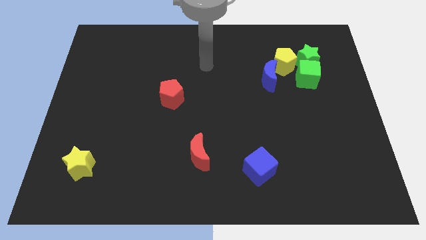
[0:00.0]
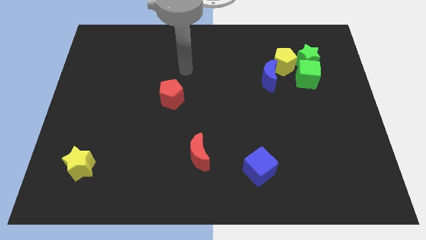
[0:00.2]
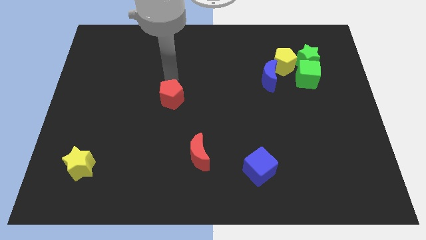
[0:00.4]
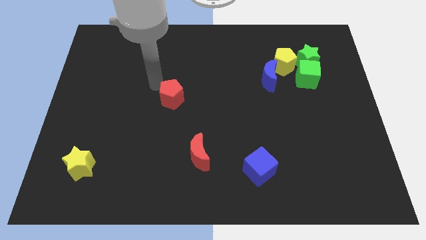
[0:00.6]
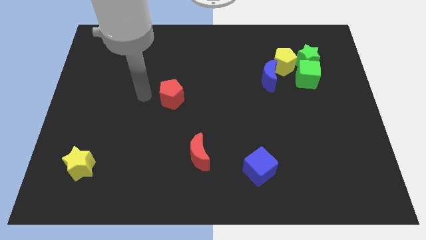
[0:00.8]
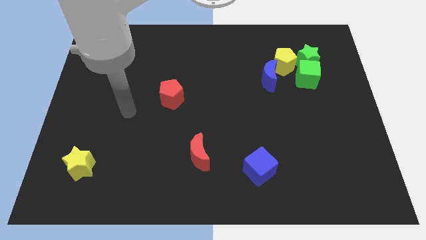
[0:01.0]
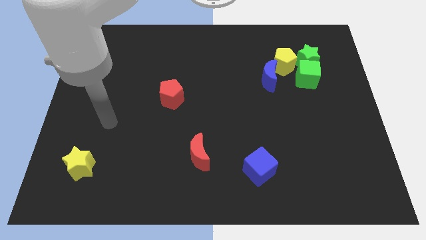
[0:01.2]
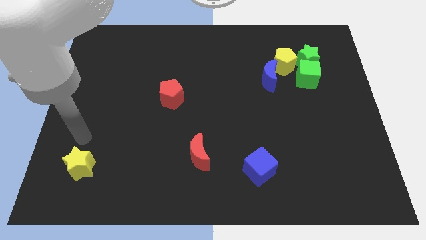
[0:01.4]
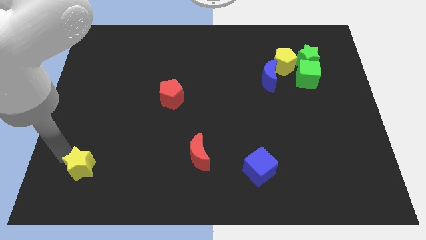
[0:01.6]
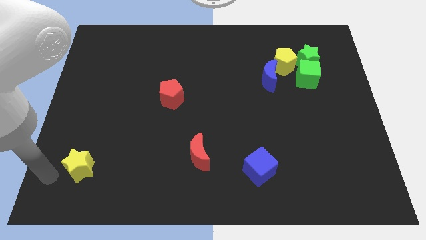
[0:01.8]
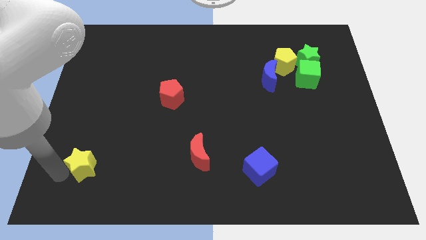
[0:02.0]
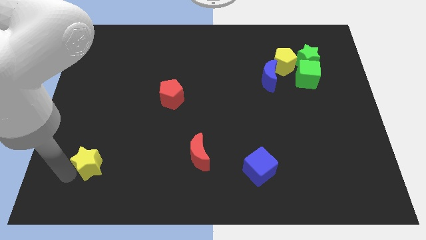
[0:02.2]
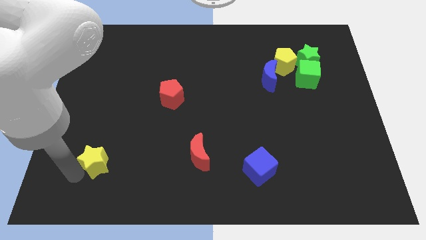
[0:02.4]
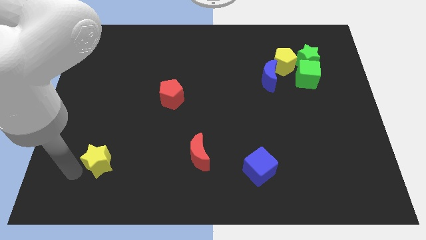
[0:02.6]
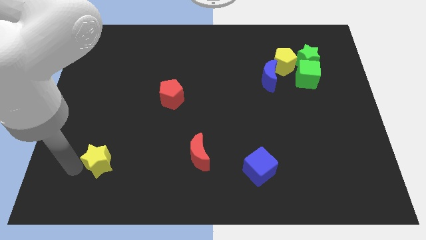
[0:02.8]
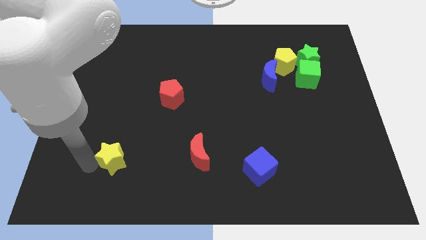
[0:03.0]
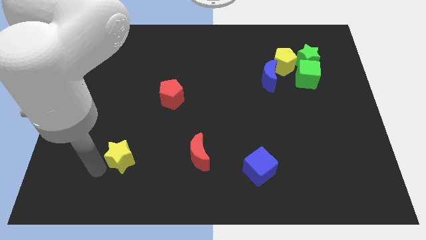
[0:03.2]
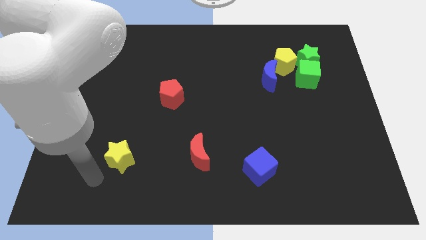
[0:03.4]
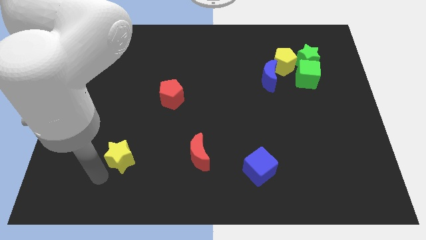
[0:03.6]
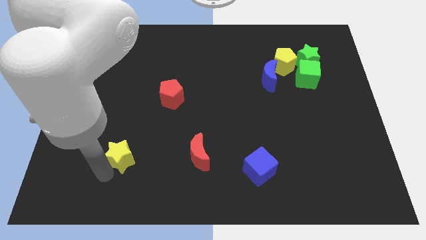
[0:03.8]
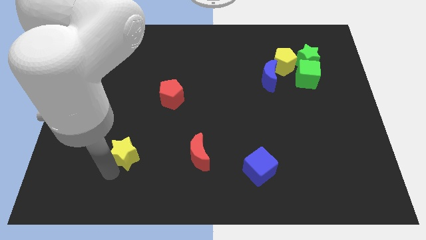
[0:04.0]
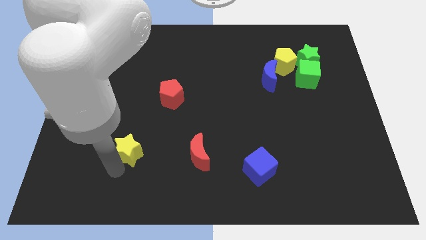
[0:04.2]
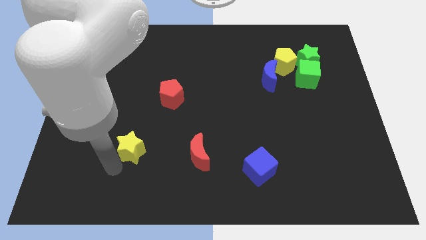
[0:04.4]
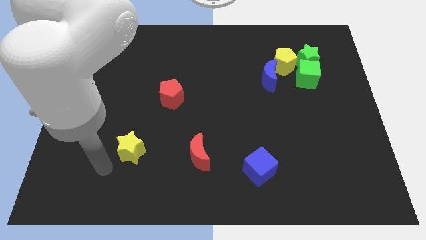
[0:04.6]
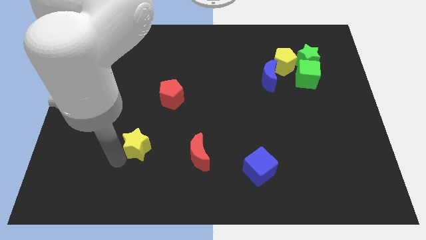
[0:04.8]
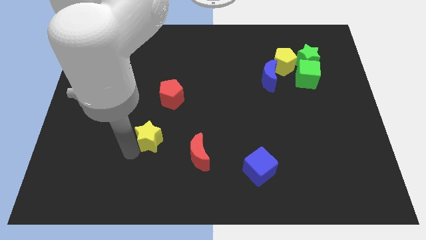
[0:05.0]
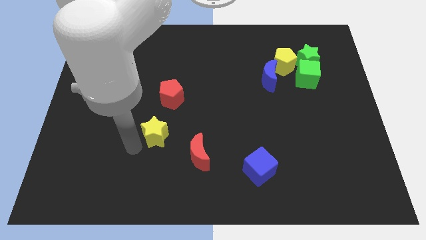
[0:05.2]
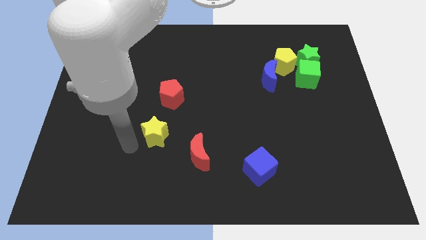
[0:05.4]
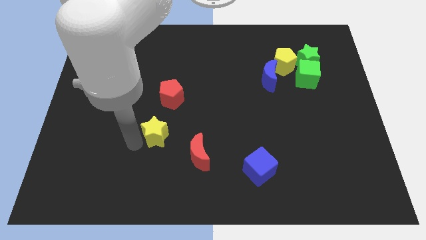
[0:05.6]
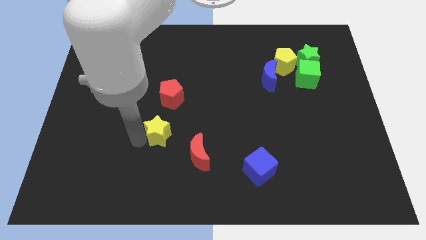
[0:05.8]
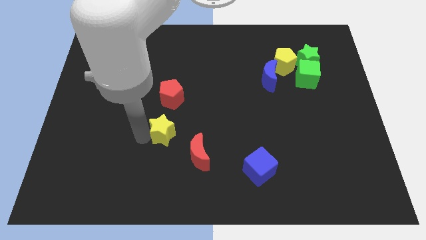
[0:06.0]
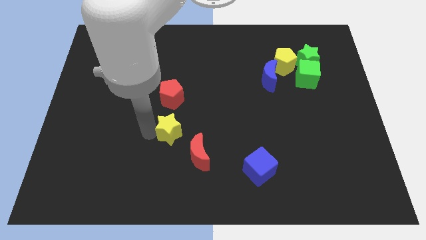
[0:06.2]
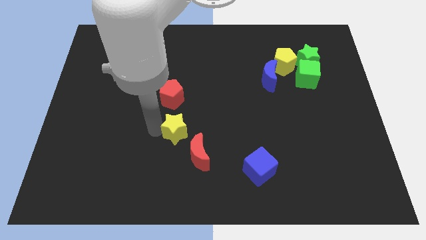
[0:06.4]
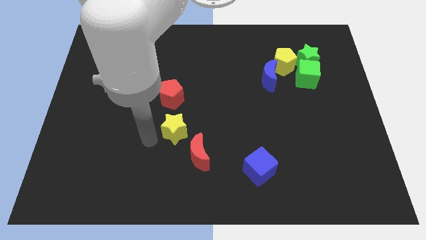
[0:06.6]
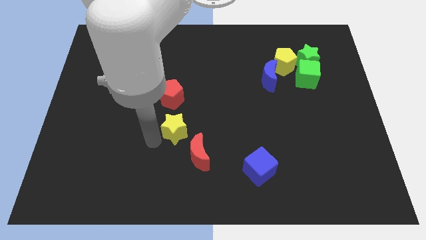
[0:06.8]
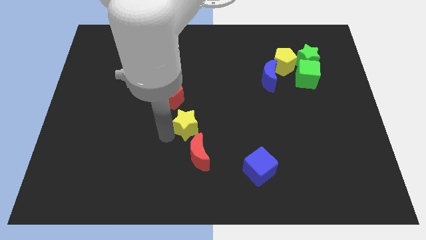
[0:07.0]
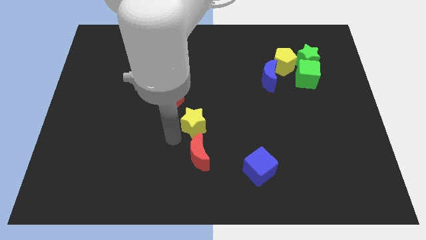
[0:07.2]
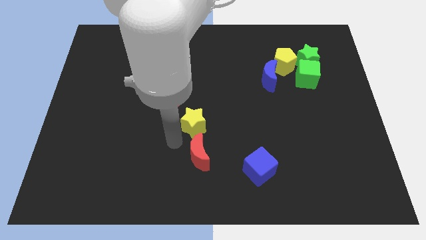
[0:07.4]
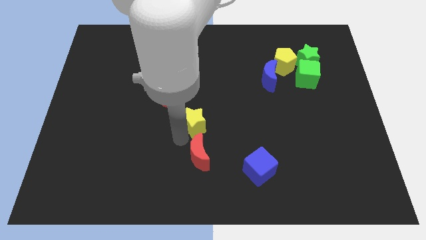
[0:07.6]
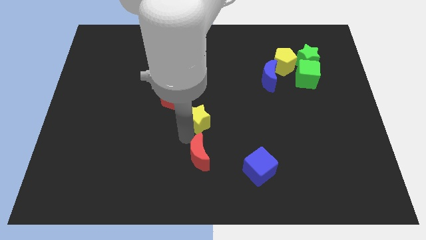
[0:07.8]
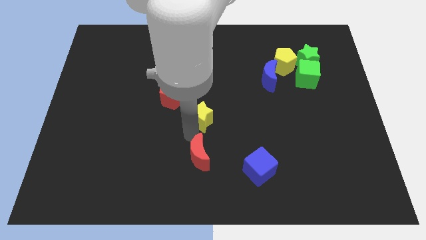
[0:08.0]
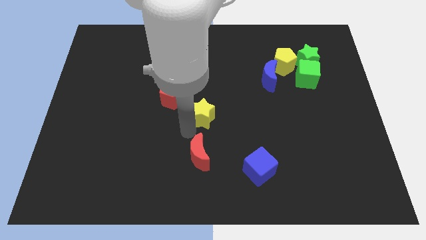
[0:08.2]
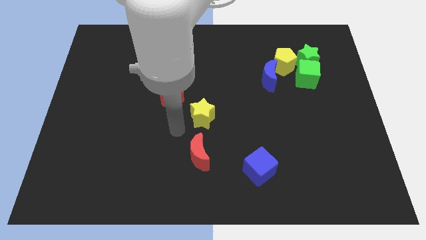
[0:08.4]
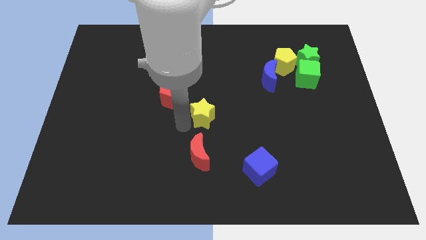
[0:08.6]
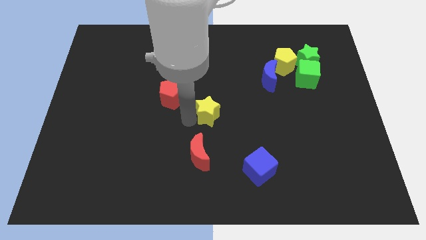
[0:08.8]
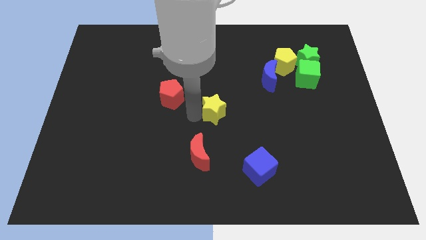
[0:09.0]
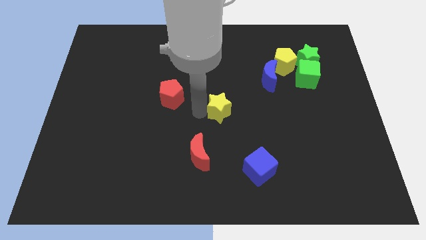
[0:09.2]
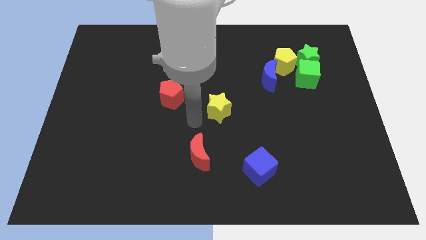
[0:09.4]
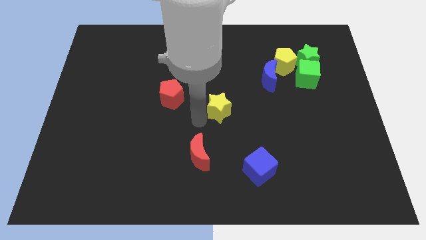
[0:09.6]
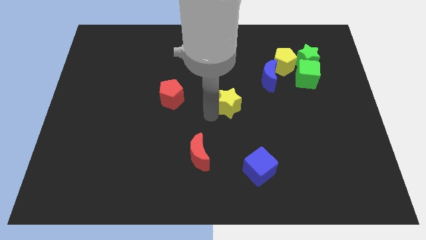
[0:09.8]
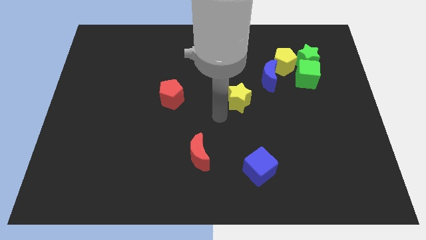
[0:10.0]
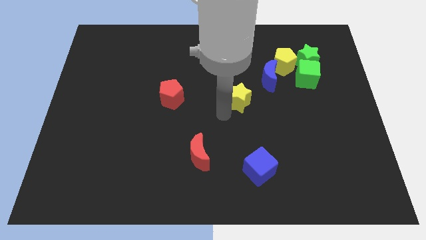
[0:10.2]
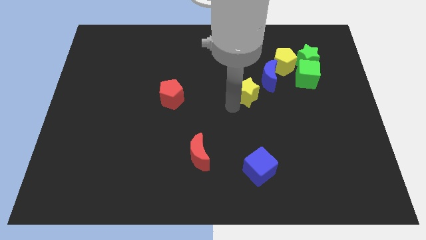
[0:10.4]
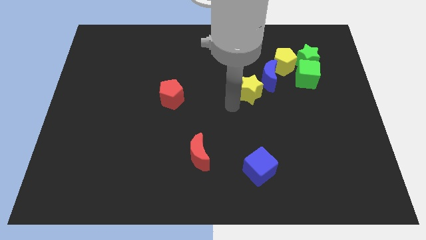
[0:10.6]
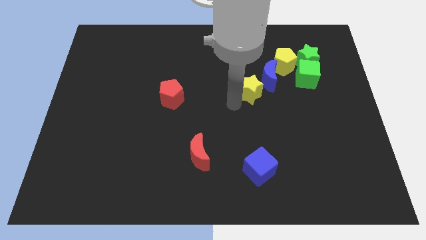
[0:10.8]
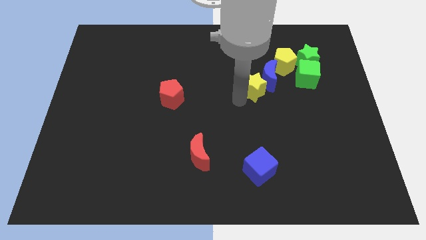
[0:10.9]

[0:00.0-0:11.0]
push the yellow star towards the blue moon

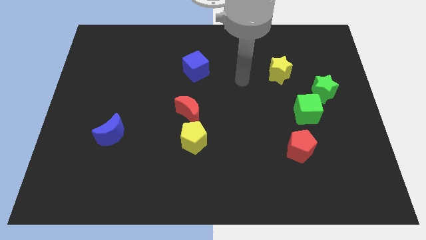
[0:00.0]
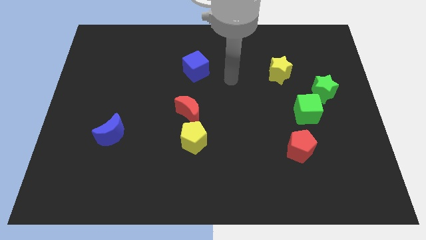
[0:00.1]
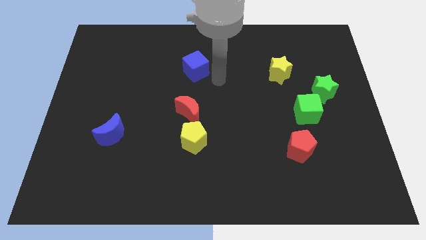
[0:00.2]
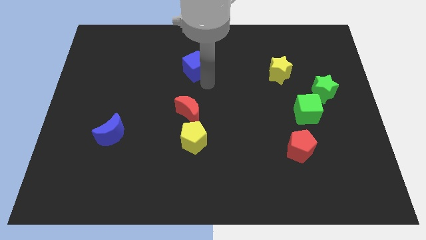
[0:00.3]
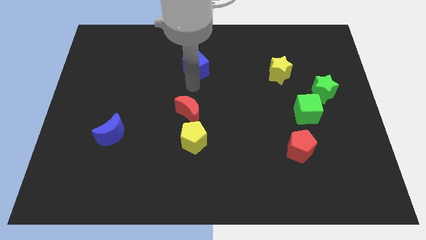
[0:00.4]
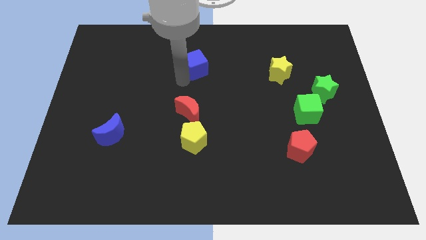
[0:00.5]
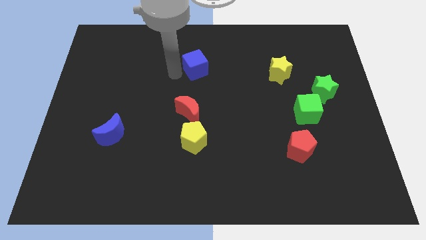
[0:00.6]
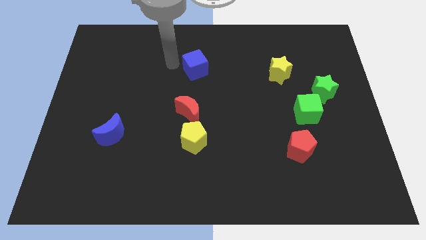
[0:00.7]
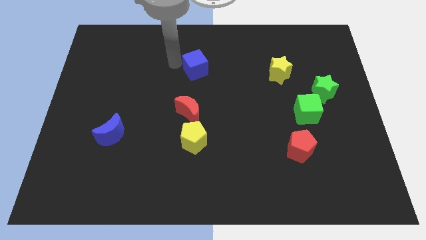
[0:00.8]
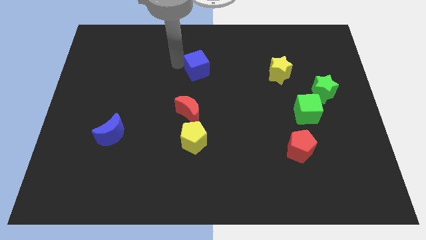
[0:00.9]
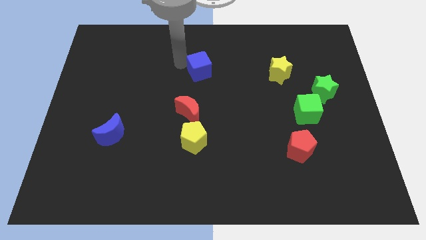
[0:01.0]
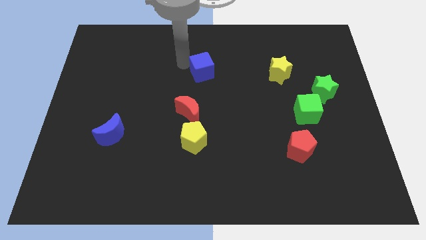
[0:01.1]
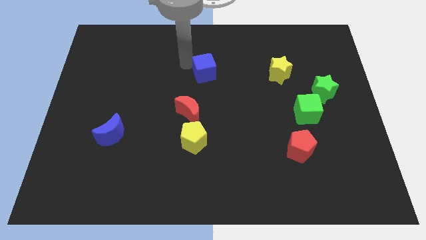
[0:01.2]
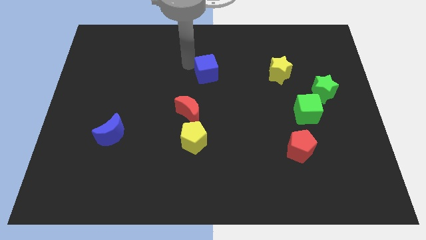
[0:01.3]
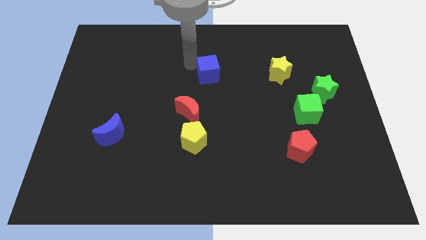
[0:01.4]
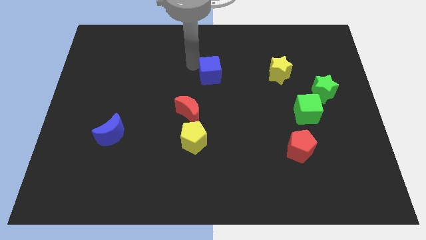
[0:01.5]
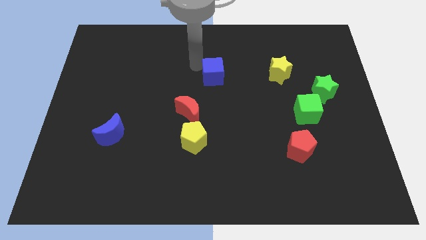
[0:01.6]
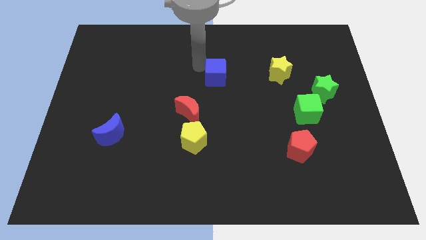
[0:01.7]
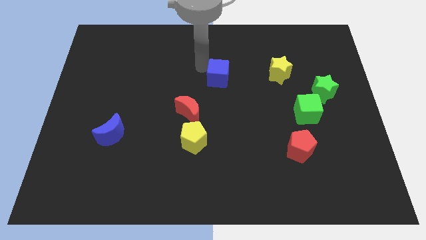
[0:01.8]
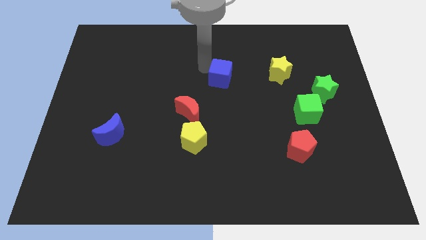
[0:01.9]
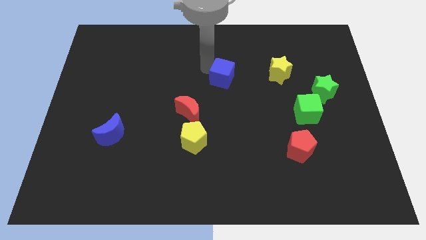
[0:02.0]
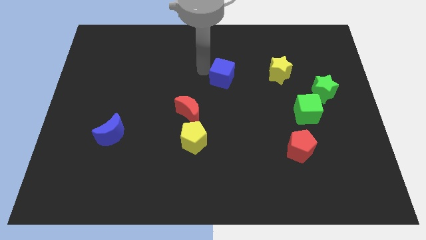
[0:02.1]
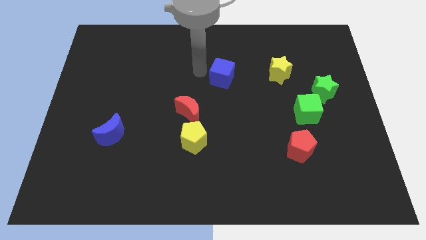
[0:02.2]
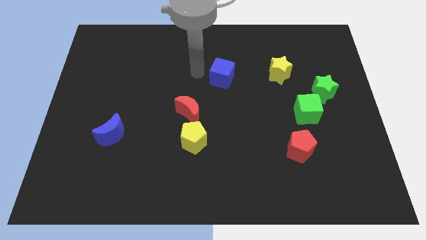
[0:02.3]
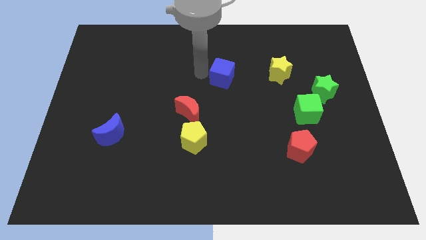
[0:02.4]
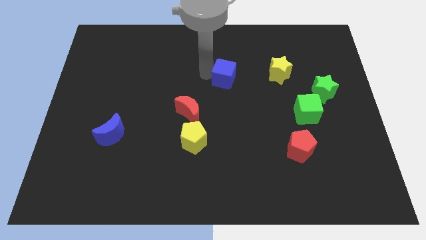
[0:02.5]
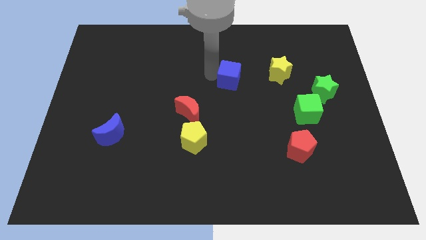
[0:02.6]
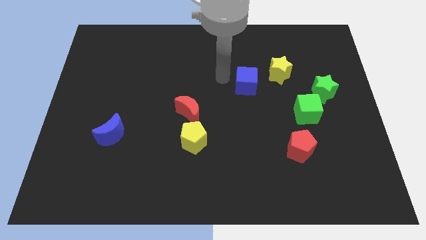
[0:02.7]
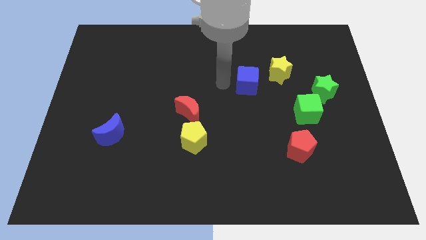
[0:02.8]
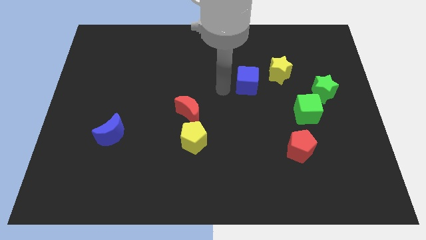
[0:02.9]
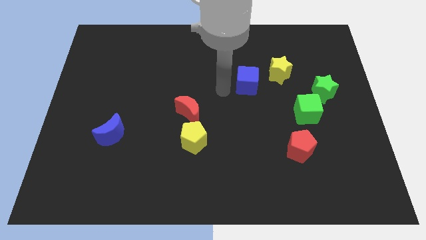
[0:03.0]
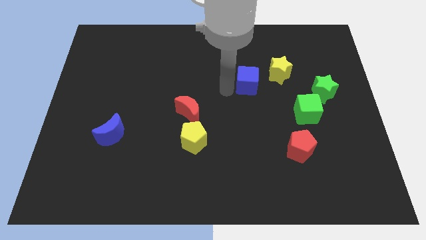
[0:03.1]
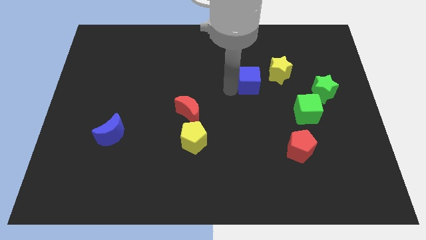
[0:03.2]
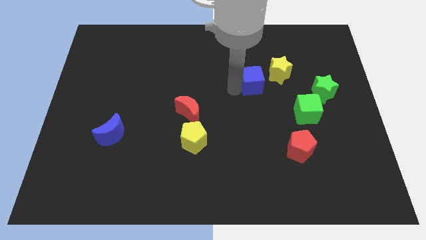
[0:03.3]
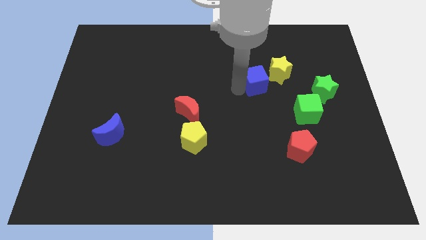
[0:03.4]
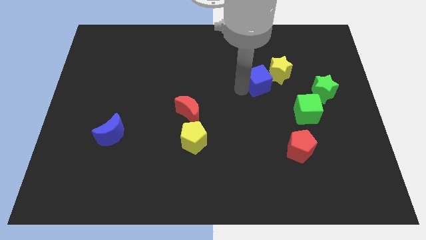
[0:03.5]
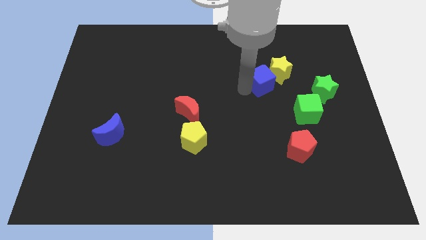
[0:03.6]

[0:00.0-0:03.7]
slide the blue cube next to the yellow star
